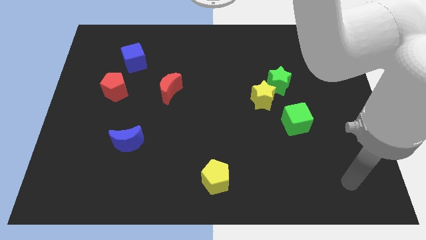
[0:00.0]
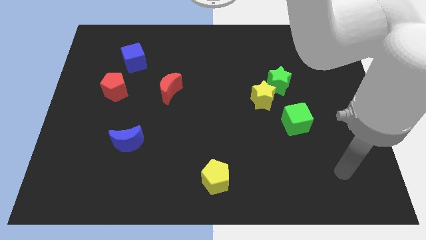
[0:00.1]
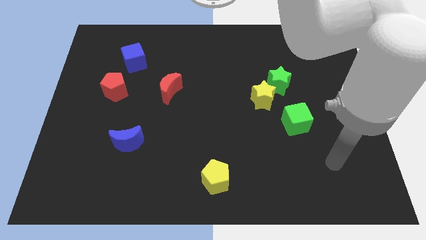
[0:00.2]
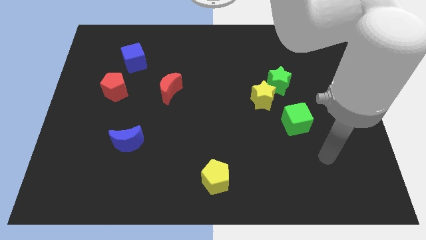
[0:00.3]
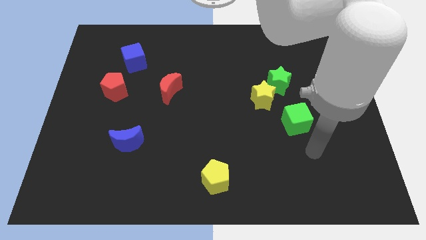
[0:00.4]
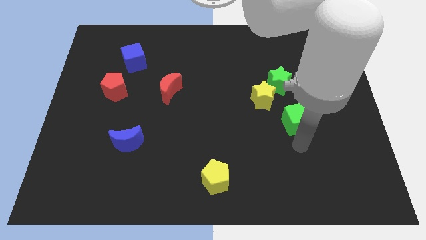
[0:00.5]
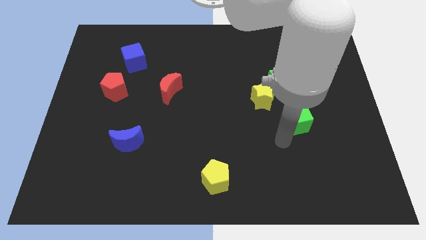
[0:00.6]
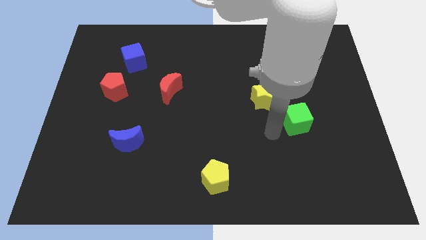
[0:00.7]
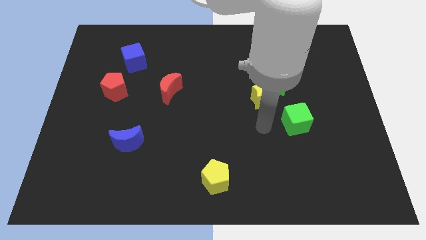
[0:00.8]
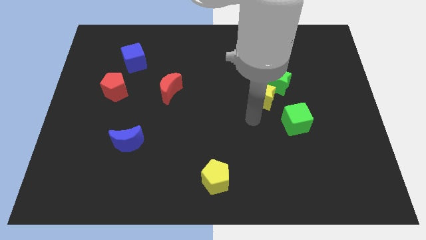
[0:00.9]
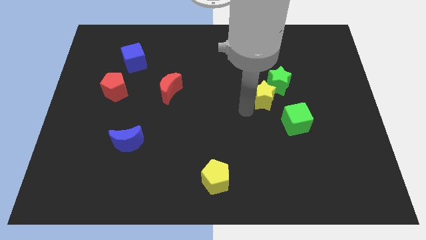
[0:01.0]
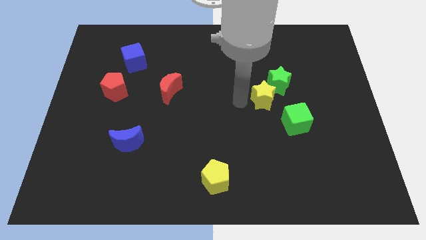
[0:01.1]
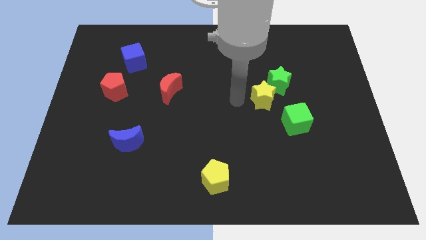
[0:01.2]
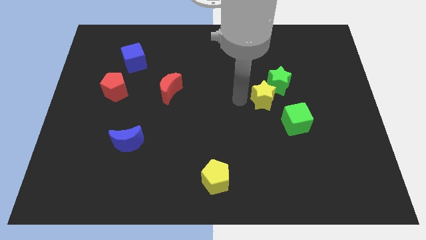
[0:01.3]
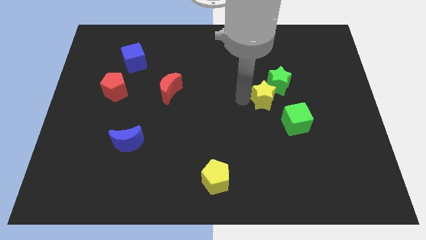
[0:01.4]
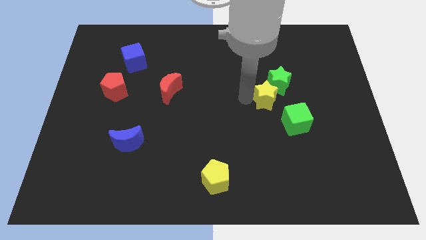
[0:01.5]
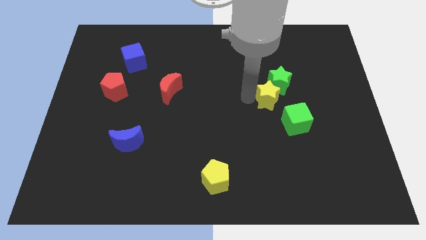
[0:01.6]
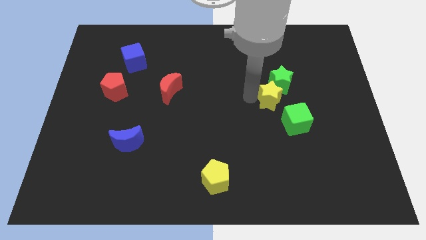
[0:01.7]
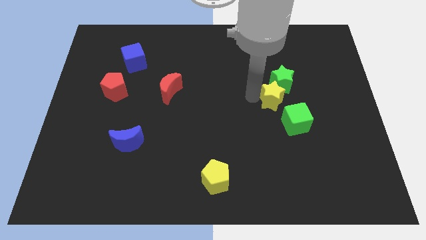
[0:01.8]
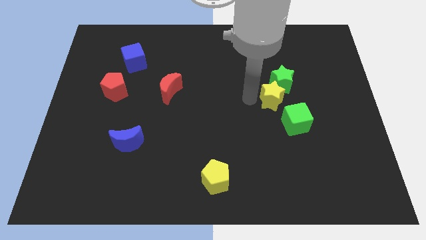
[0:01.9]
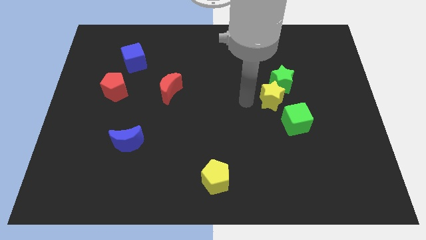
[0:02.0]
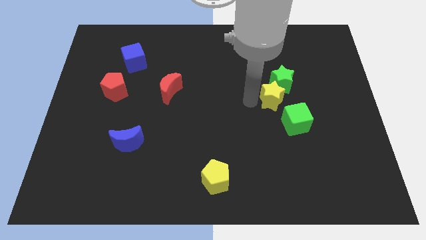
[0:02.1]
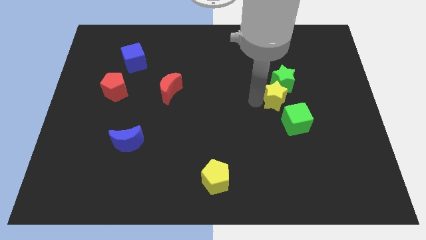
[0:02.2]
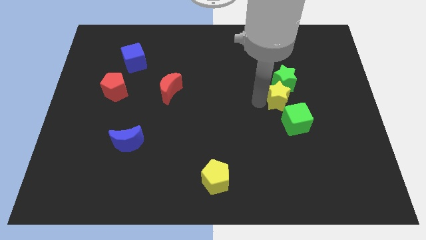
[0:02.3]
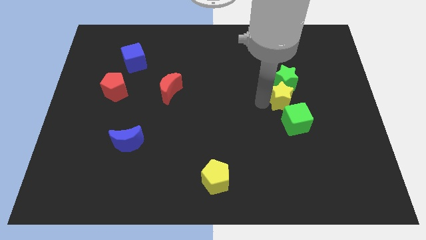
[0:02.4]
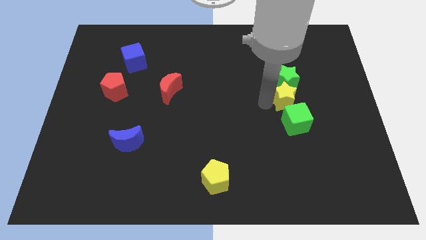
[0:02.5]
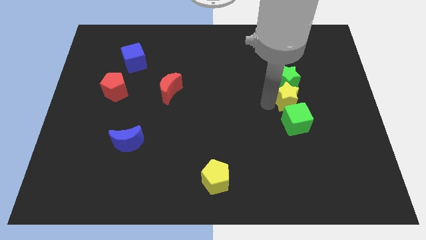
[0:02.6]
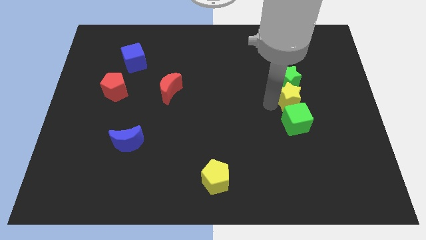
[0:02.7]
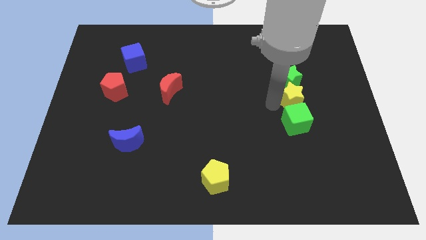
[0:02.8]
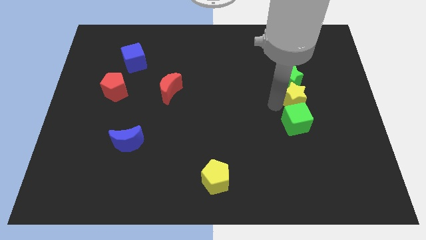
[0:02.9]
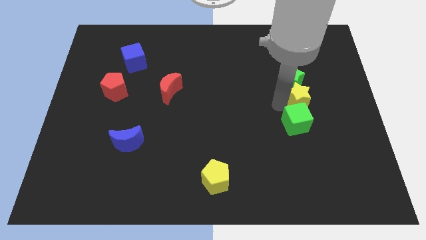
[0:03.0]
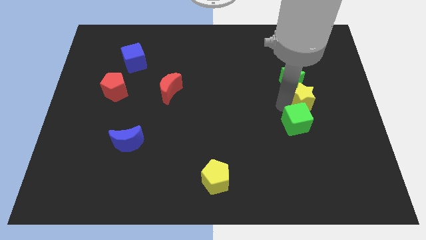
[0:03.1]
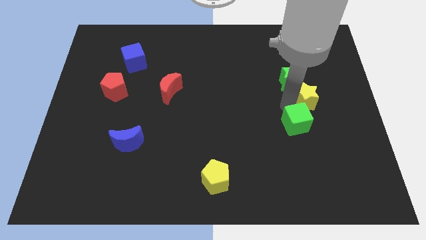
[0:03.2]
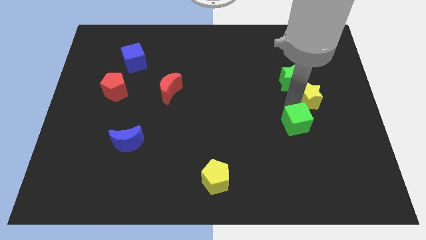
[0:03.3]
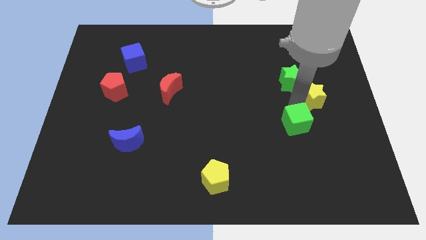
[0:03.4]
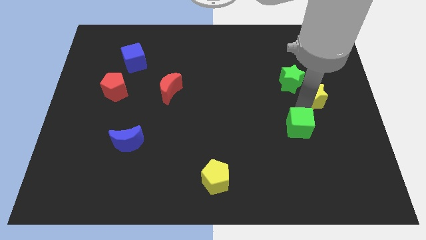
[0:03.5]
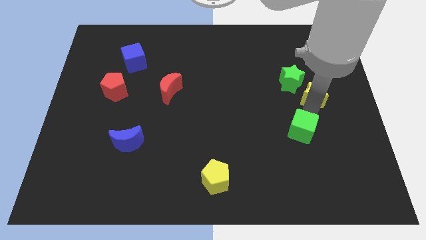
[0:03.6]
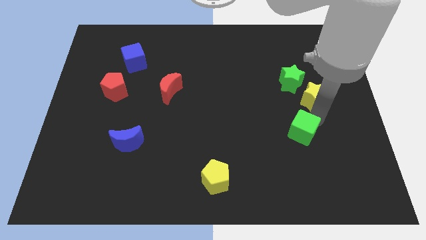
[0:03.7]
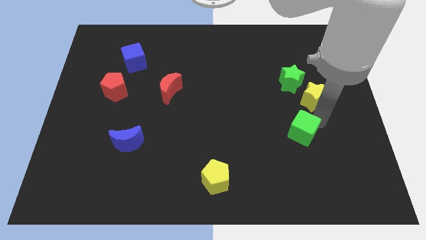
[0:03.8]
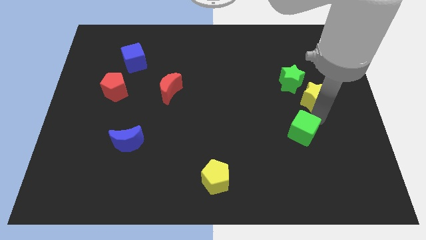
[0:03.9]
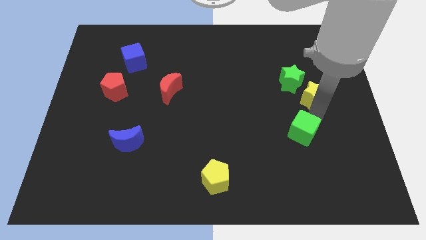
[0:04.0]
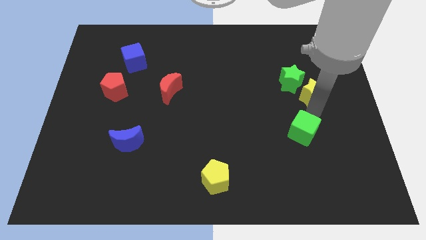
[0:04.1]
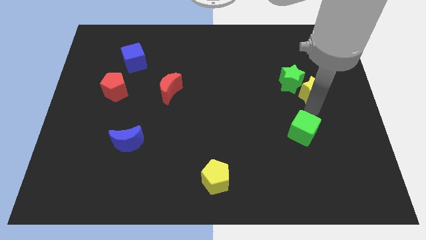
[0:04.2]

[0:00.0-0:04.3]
move the yellow star up and to the right a bit

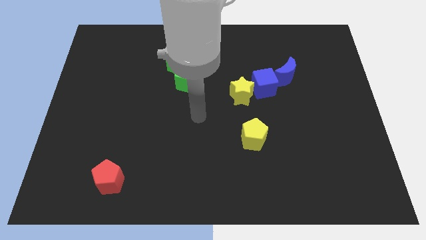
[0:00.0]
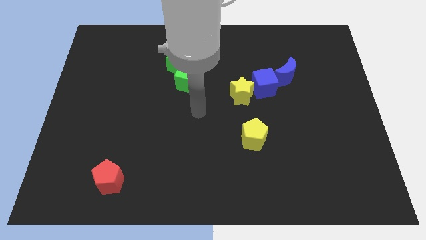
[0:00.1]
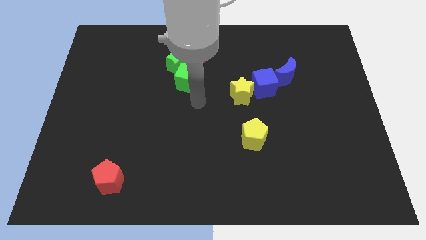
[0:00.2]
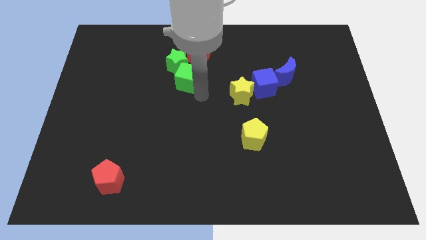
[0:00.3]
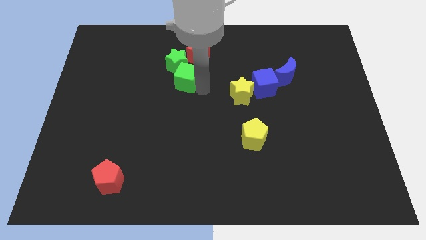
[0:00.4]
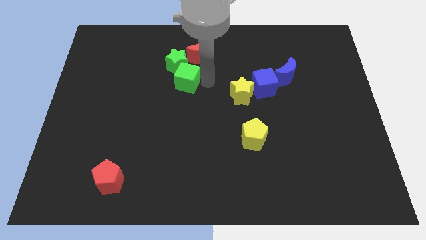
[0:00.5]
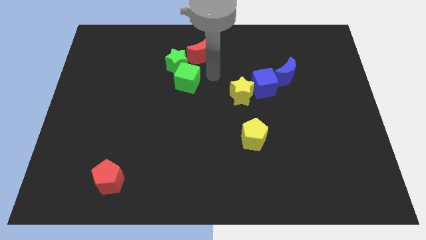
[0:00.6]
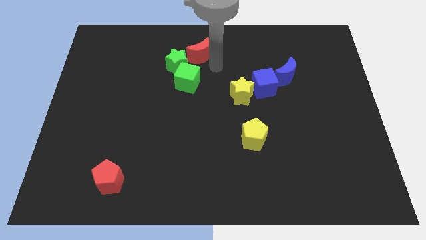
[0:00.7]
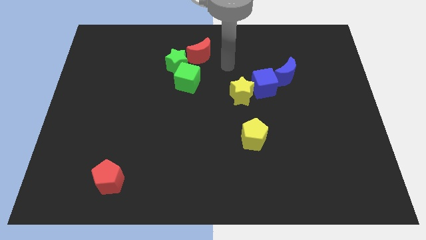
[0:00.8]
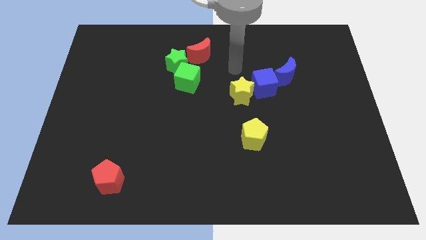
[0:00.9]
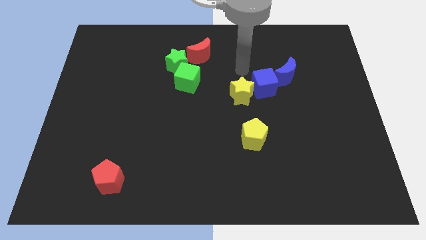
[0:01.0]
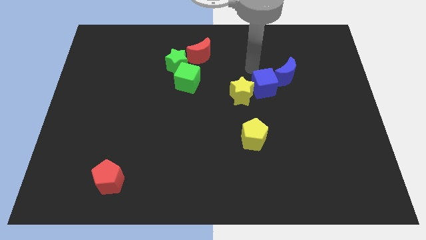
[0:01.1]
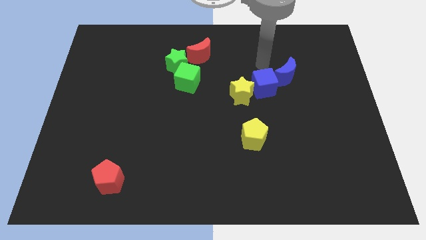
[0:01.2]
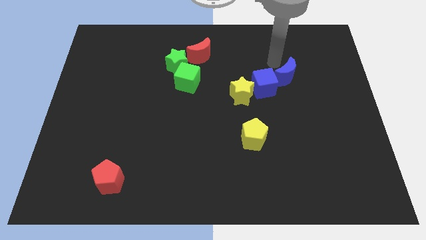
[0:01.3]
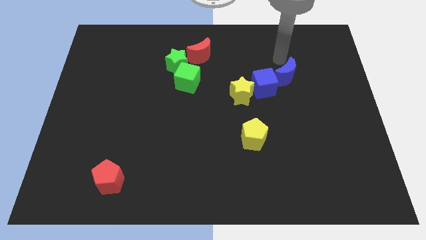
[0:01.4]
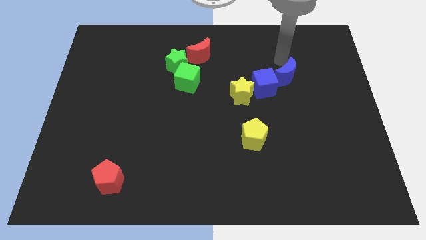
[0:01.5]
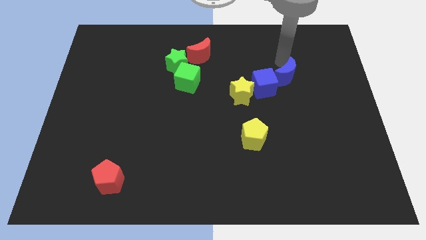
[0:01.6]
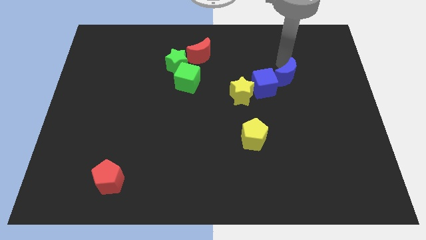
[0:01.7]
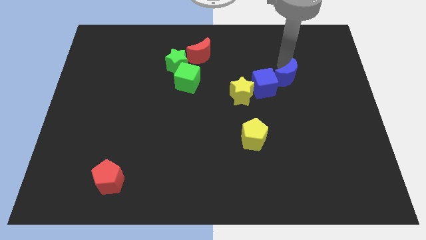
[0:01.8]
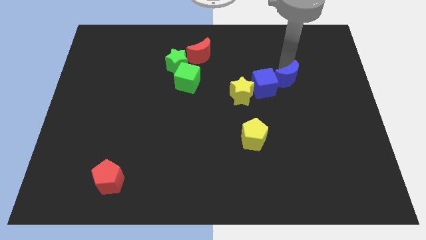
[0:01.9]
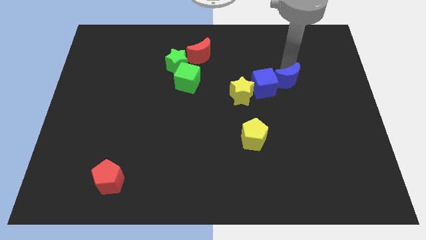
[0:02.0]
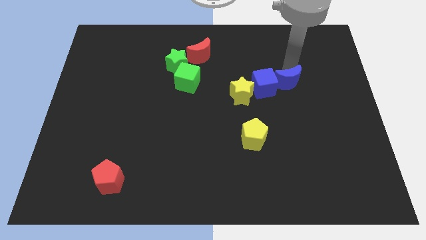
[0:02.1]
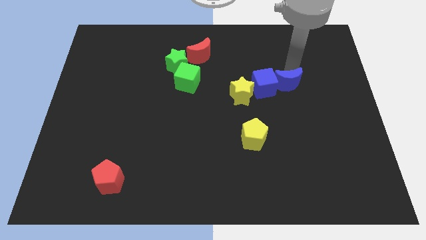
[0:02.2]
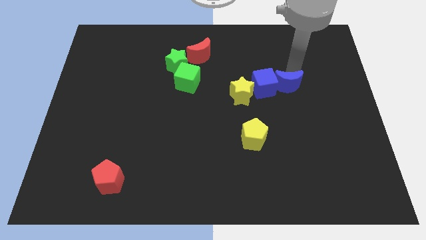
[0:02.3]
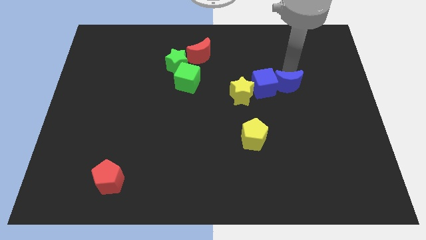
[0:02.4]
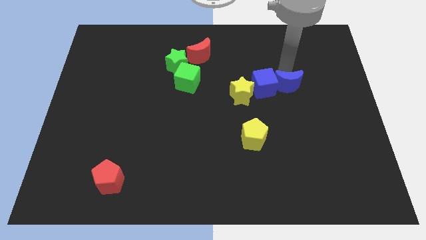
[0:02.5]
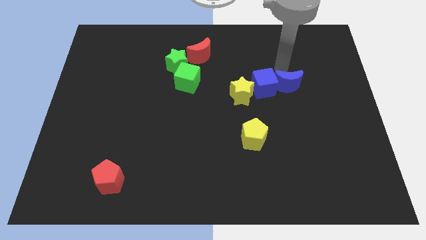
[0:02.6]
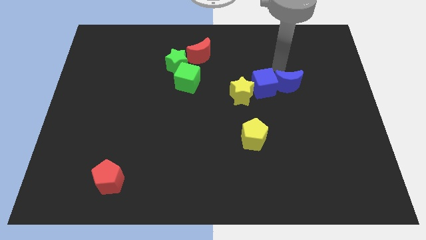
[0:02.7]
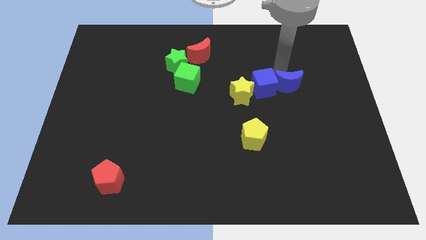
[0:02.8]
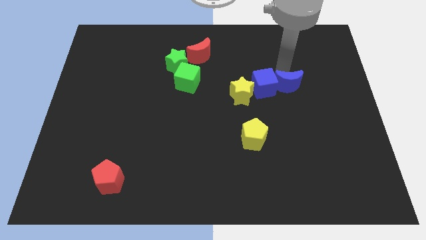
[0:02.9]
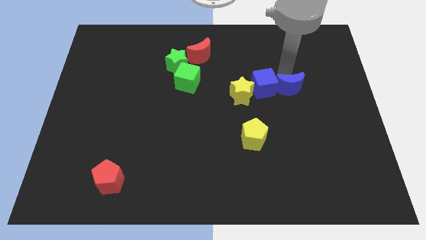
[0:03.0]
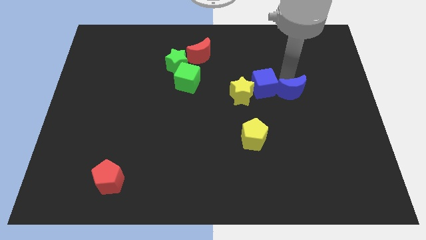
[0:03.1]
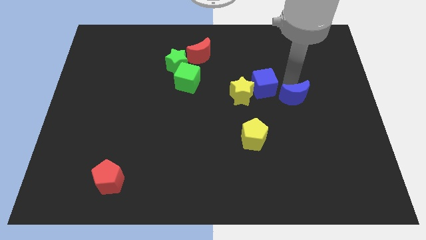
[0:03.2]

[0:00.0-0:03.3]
slightly slide the blue moon downwards

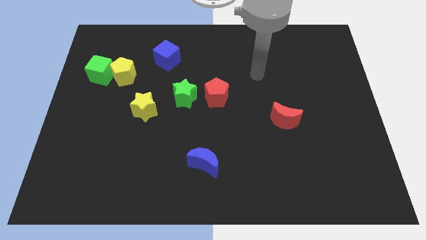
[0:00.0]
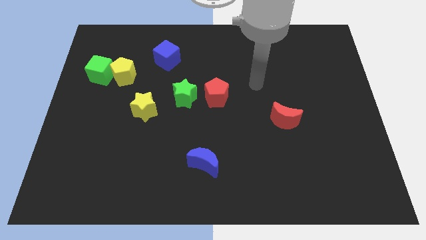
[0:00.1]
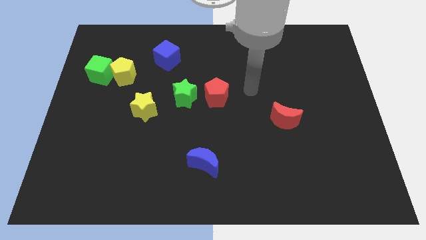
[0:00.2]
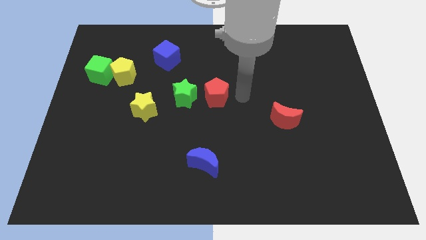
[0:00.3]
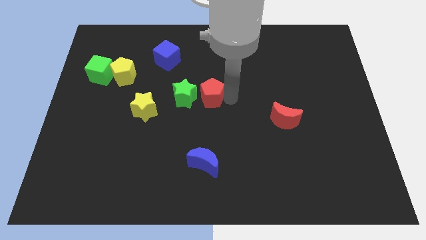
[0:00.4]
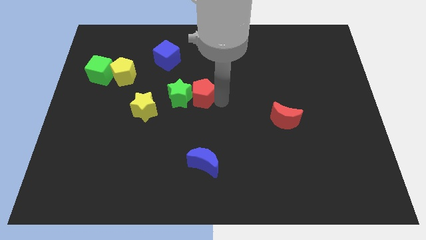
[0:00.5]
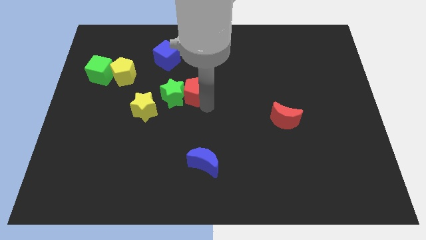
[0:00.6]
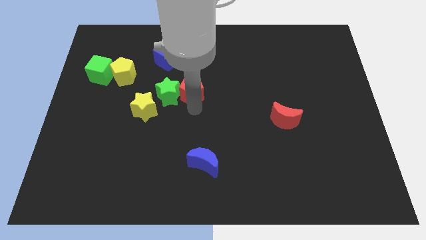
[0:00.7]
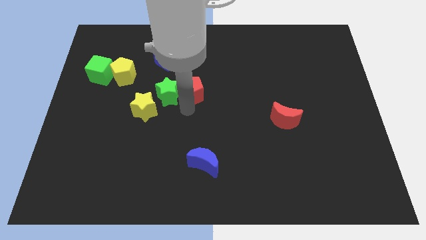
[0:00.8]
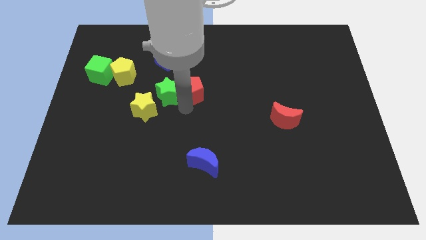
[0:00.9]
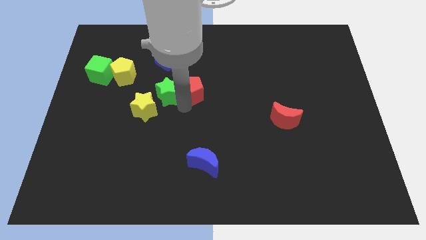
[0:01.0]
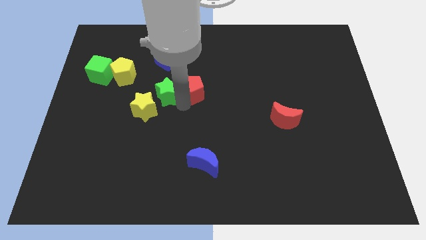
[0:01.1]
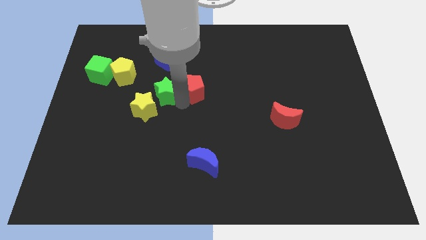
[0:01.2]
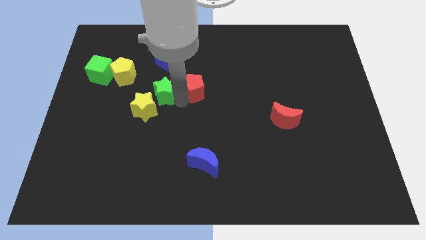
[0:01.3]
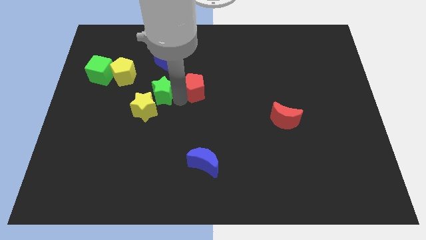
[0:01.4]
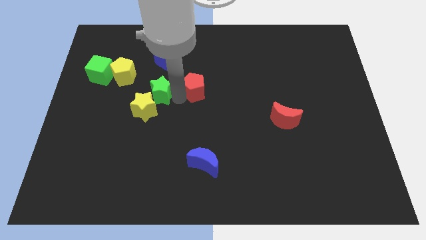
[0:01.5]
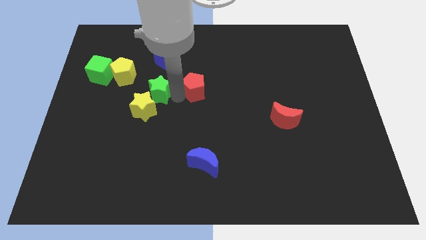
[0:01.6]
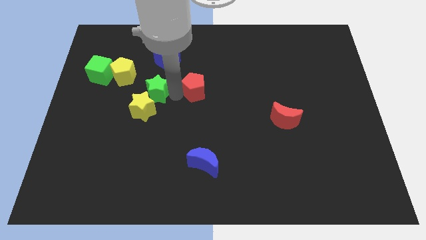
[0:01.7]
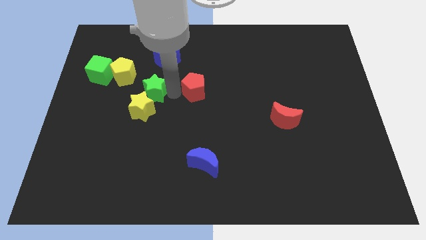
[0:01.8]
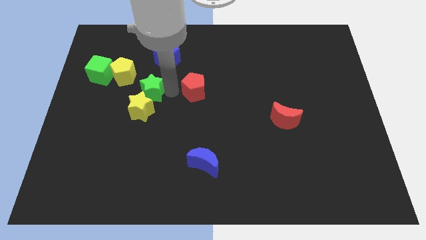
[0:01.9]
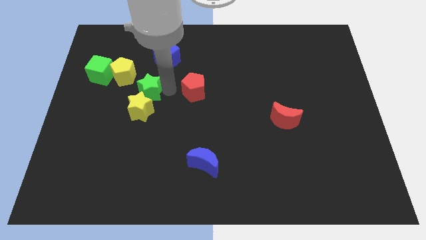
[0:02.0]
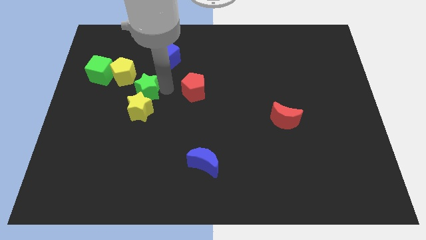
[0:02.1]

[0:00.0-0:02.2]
slide the green star a bit diagonally upwards and to the left
